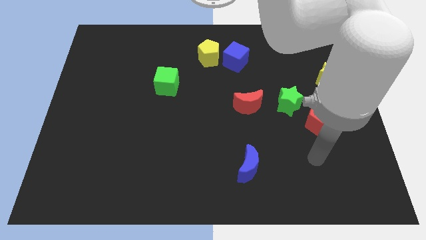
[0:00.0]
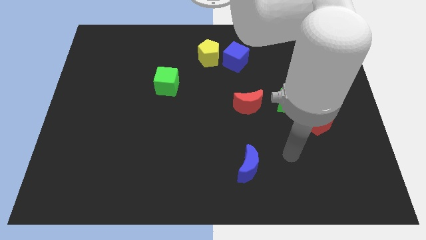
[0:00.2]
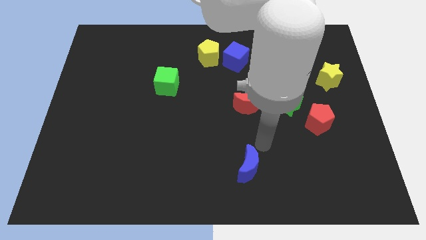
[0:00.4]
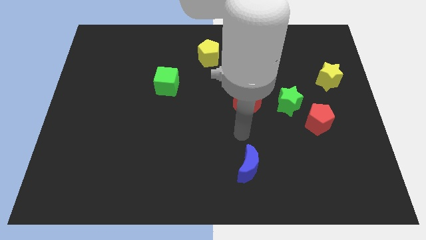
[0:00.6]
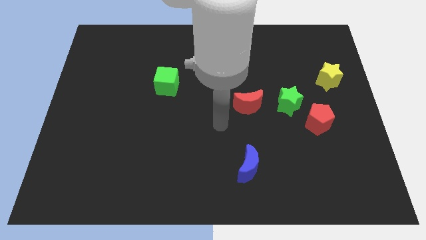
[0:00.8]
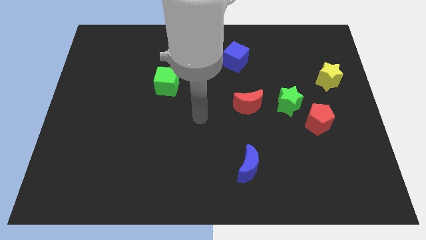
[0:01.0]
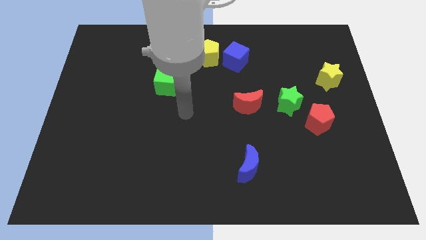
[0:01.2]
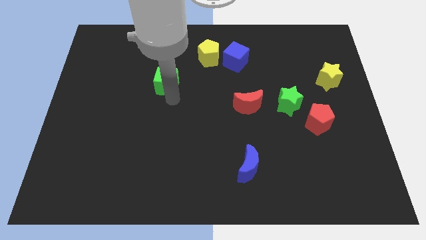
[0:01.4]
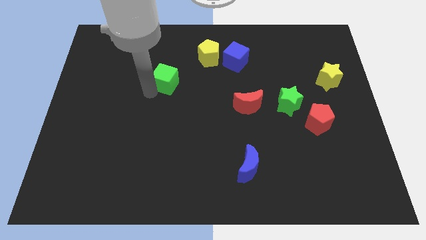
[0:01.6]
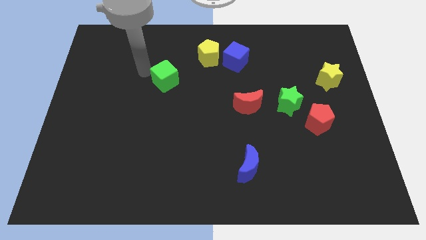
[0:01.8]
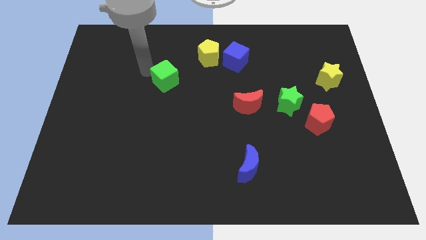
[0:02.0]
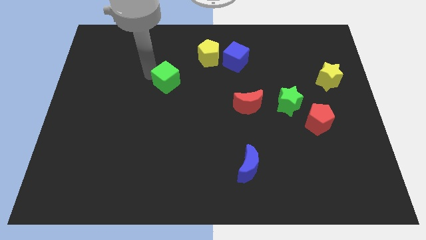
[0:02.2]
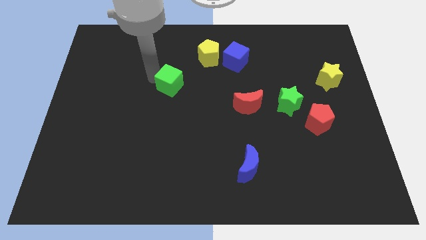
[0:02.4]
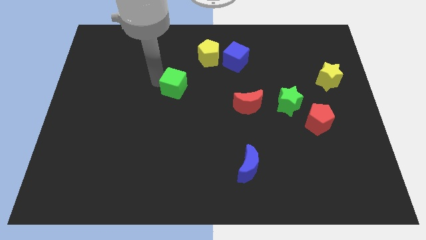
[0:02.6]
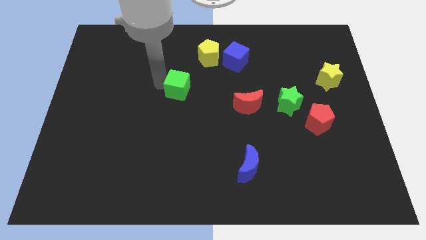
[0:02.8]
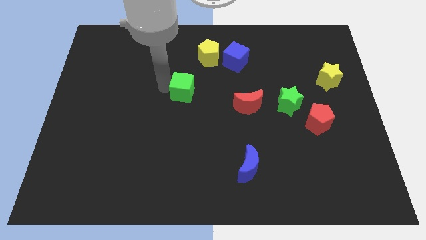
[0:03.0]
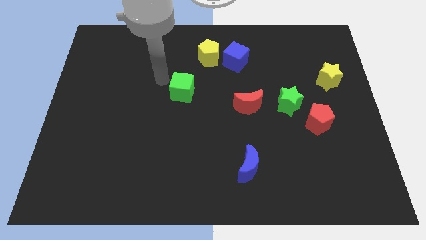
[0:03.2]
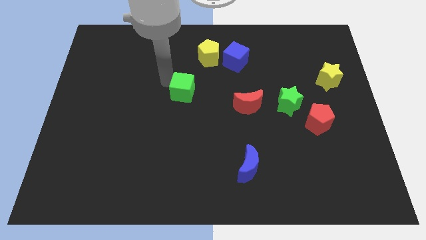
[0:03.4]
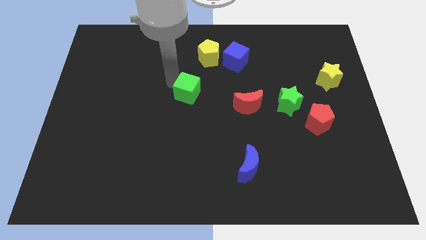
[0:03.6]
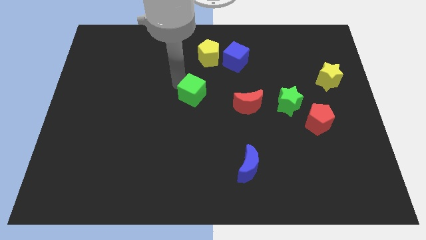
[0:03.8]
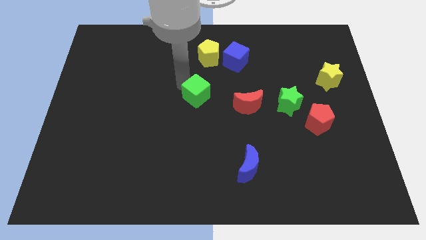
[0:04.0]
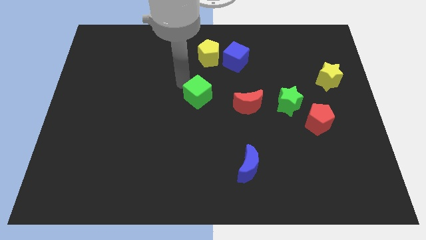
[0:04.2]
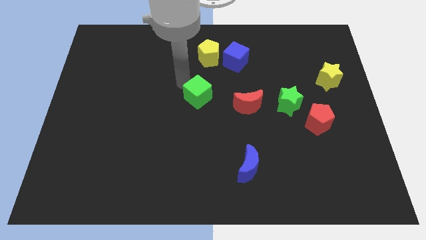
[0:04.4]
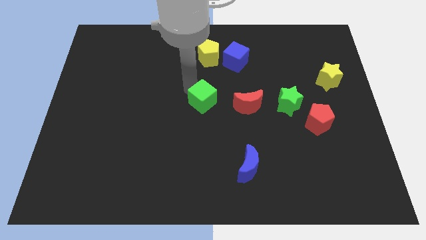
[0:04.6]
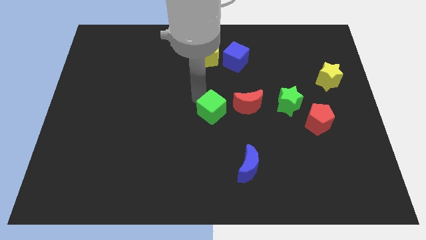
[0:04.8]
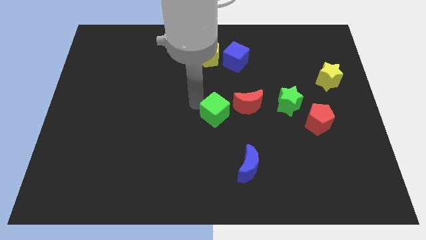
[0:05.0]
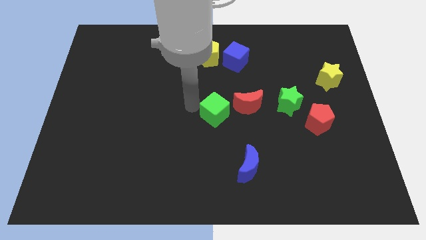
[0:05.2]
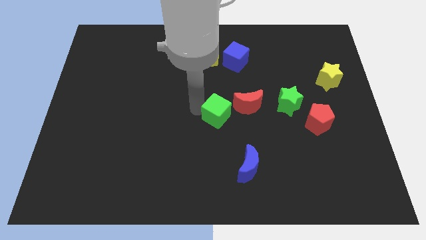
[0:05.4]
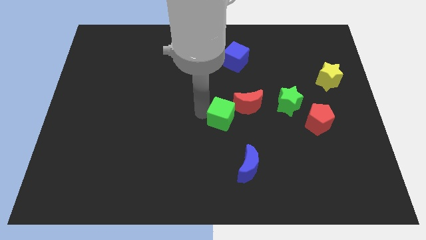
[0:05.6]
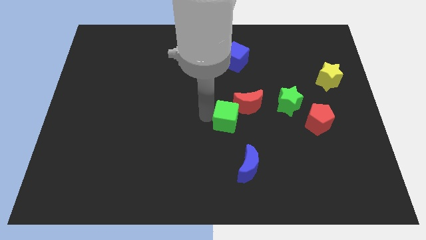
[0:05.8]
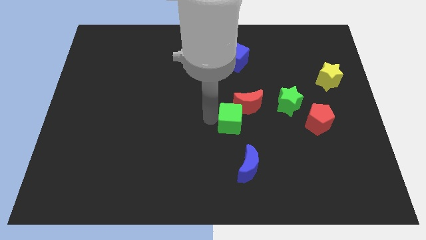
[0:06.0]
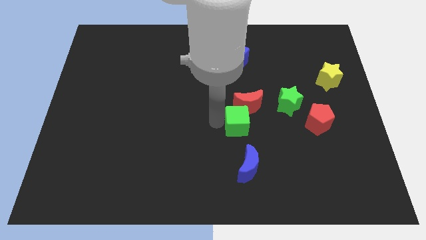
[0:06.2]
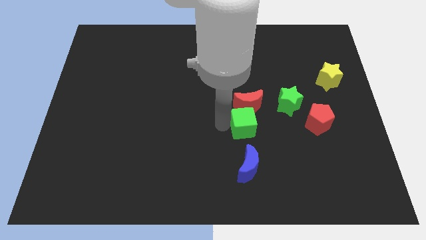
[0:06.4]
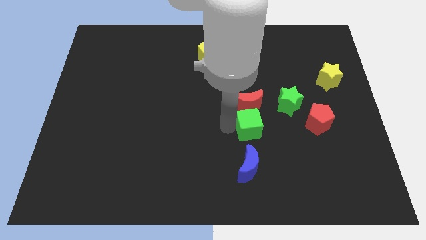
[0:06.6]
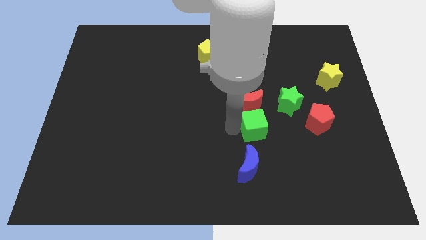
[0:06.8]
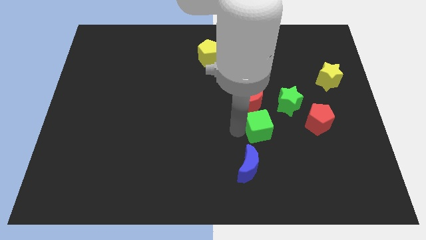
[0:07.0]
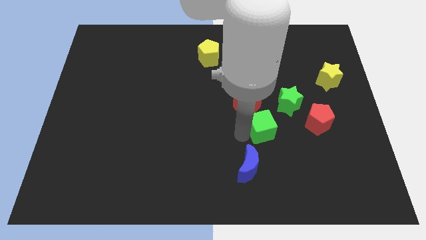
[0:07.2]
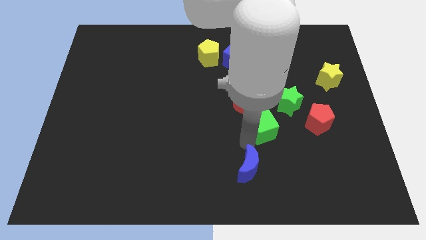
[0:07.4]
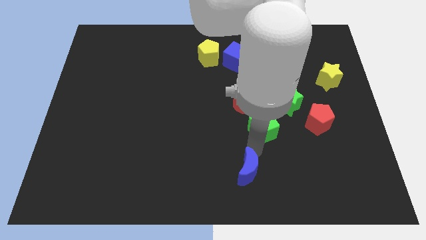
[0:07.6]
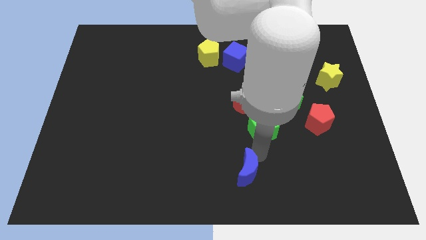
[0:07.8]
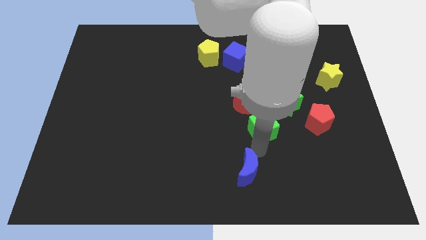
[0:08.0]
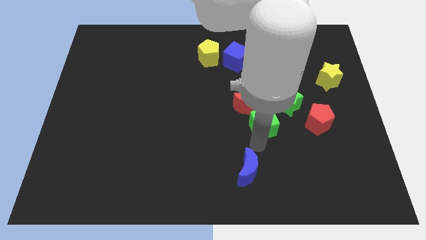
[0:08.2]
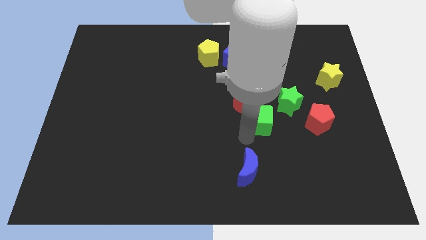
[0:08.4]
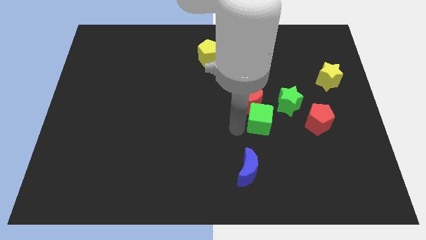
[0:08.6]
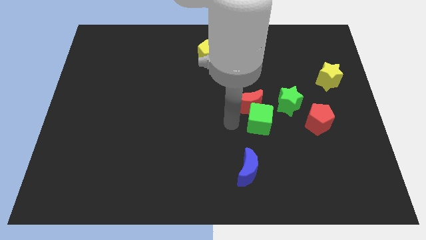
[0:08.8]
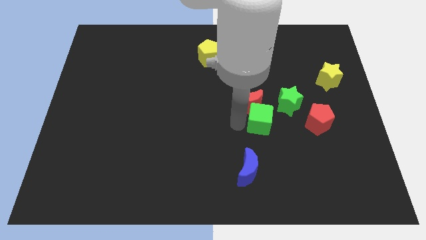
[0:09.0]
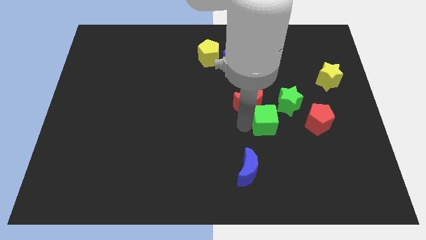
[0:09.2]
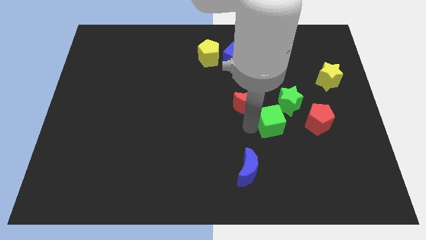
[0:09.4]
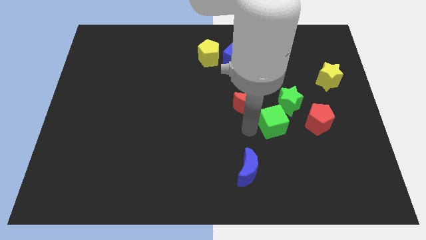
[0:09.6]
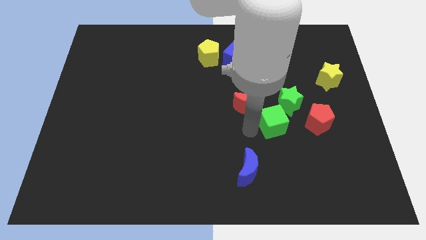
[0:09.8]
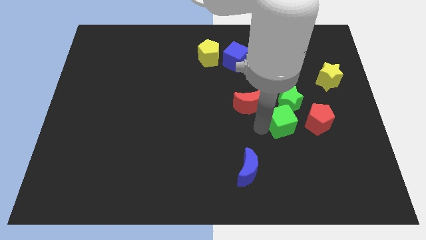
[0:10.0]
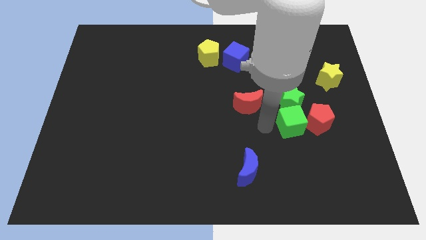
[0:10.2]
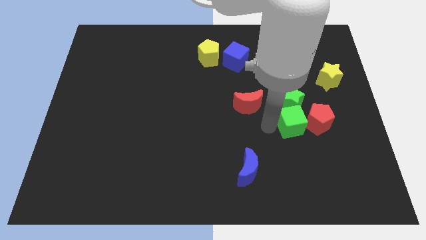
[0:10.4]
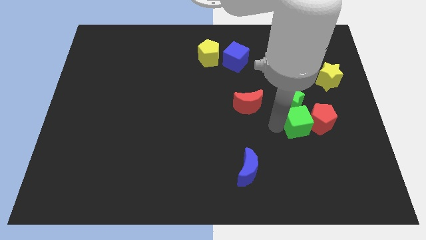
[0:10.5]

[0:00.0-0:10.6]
push the green cube close to the red pentagon

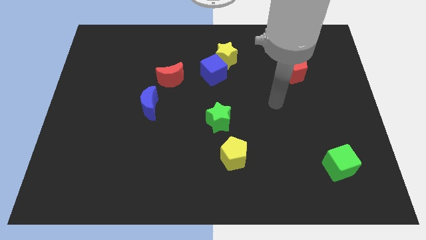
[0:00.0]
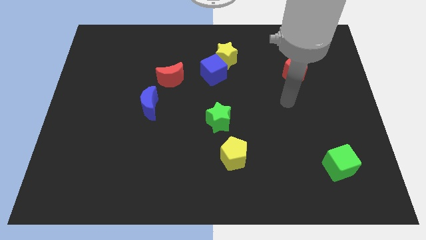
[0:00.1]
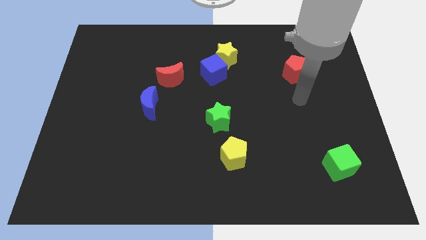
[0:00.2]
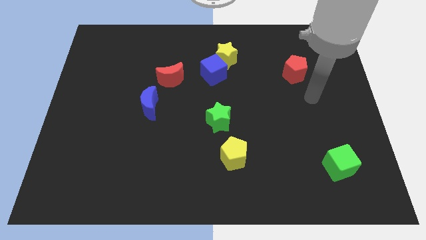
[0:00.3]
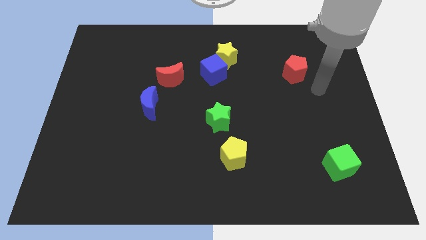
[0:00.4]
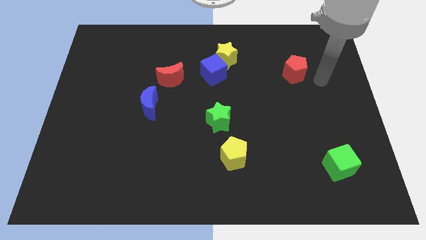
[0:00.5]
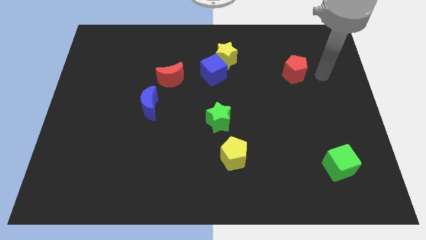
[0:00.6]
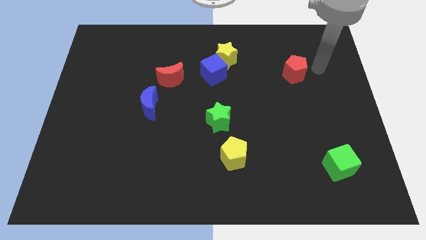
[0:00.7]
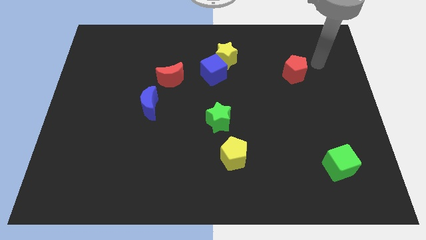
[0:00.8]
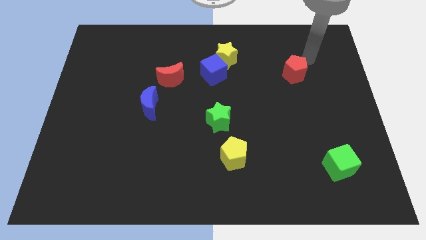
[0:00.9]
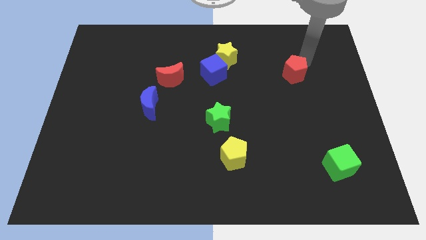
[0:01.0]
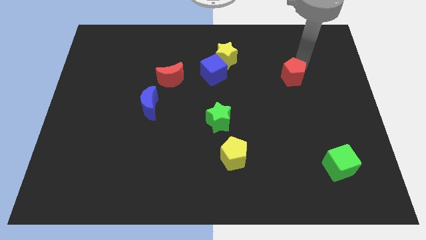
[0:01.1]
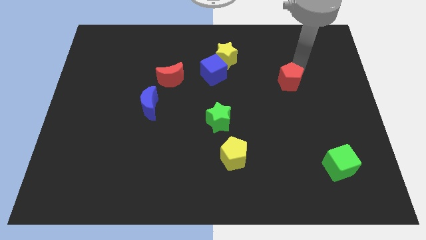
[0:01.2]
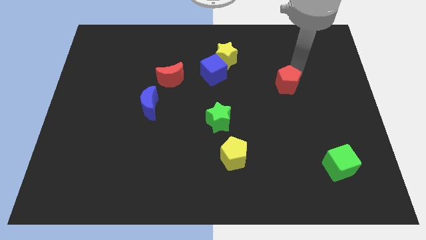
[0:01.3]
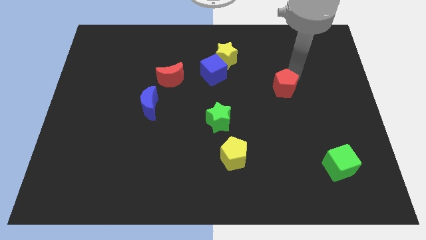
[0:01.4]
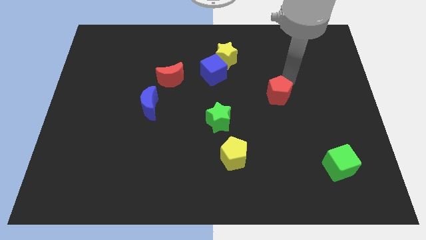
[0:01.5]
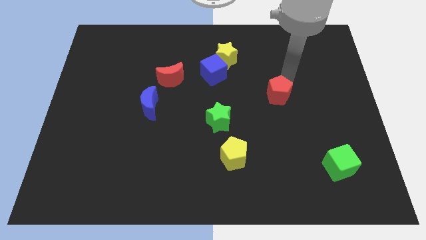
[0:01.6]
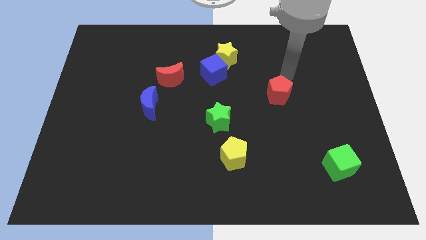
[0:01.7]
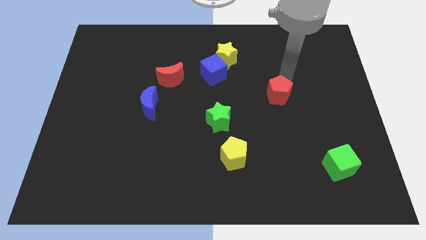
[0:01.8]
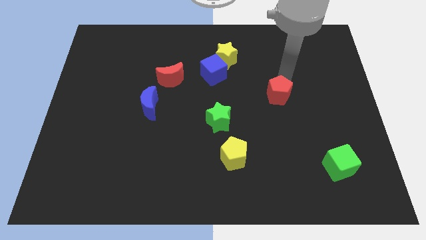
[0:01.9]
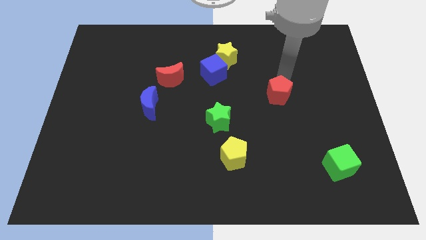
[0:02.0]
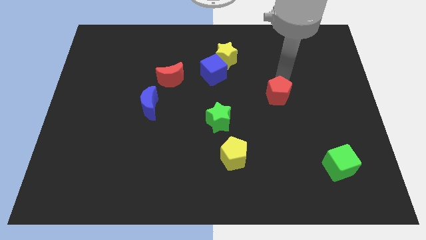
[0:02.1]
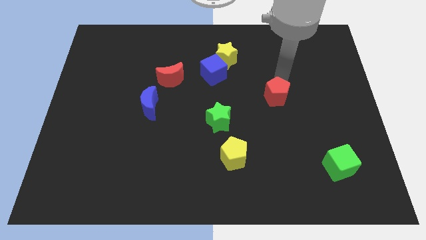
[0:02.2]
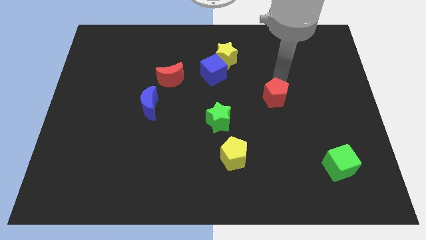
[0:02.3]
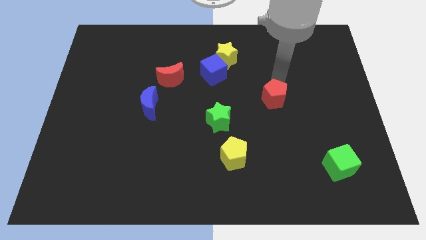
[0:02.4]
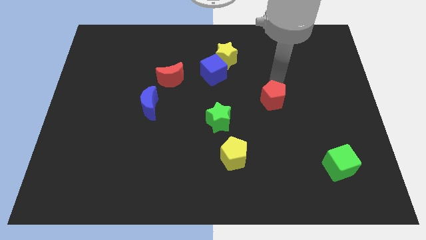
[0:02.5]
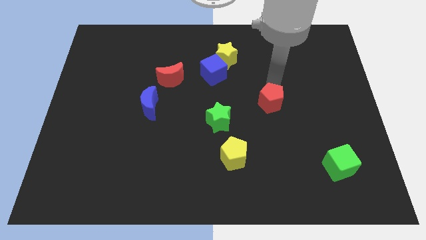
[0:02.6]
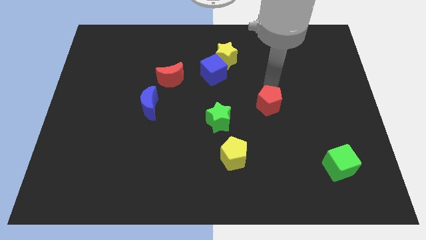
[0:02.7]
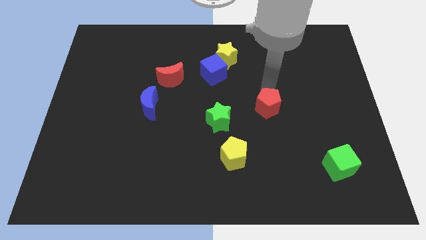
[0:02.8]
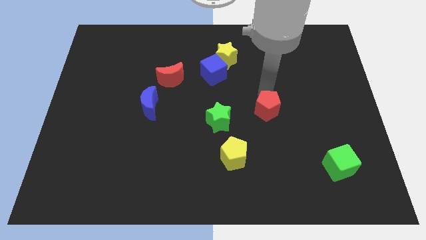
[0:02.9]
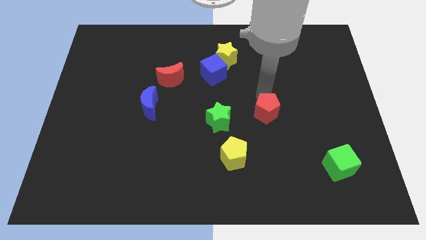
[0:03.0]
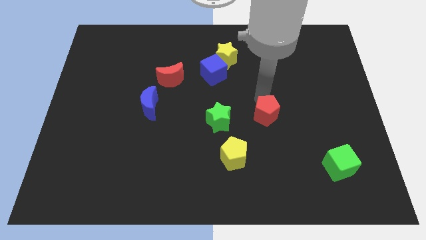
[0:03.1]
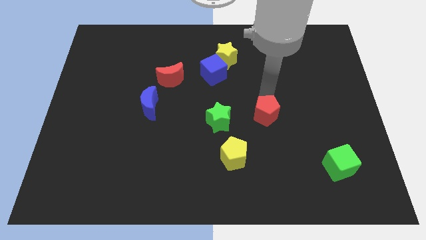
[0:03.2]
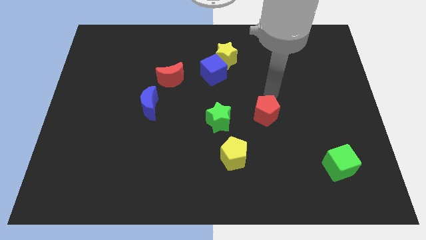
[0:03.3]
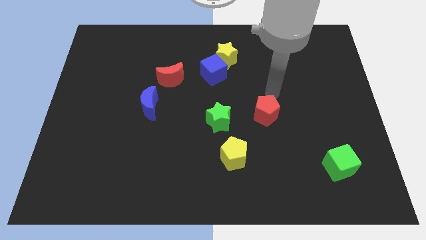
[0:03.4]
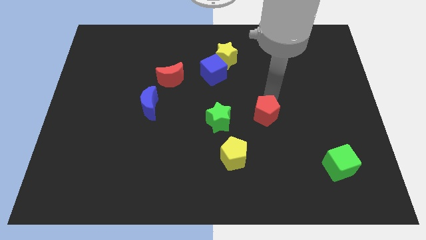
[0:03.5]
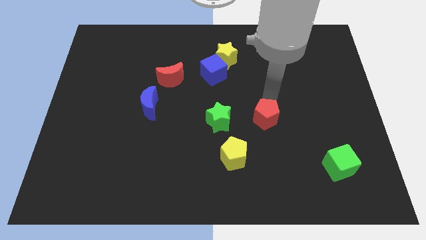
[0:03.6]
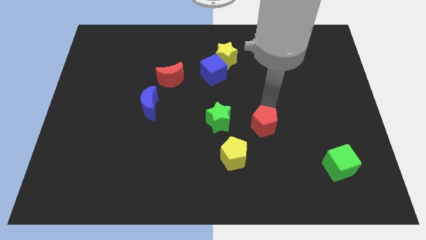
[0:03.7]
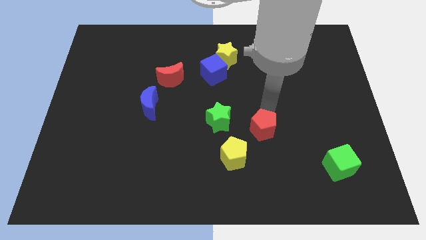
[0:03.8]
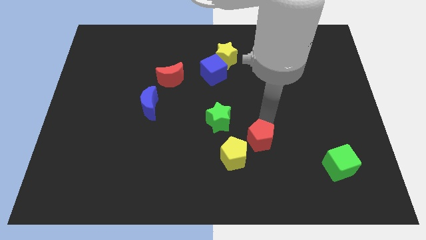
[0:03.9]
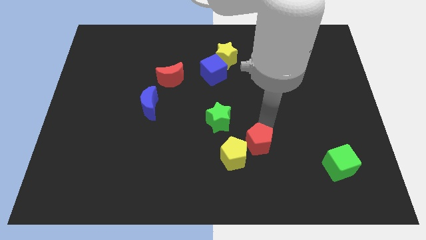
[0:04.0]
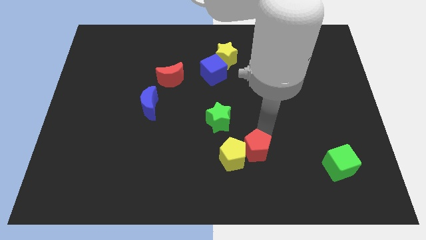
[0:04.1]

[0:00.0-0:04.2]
slide the red pentagon next to the yellow pentagon
